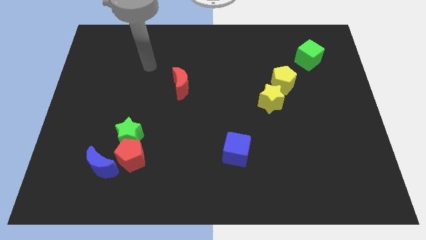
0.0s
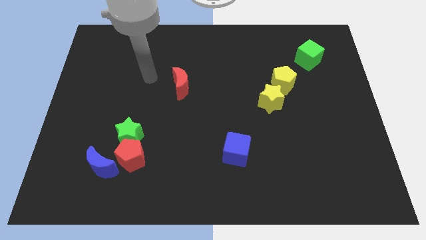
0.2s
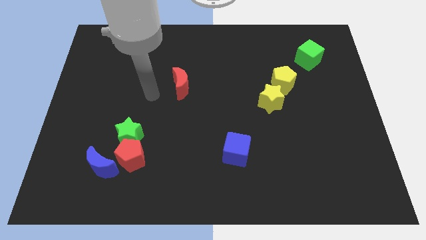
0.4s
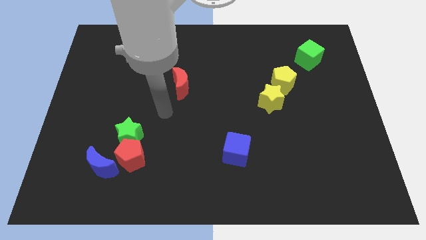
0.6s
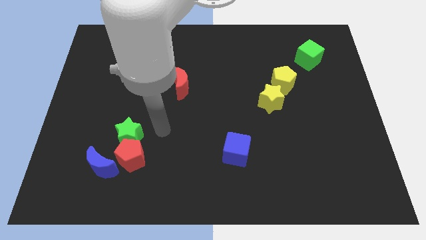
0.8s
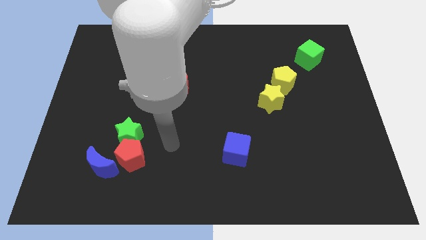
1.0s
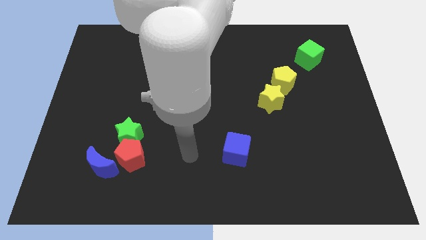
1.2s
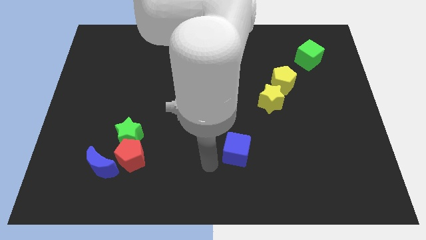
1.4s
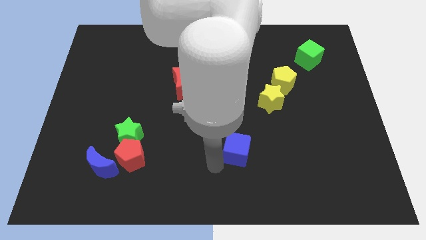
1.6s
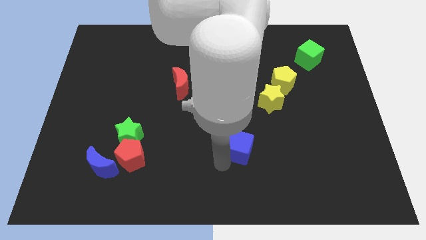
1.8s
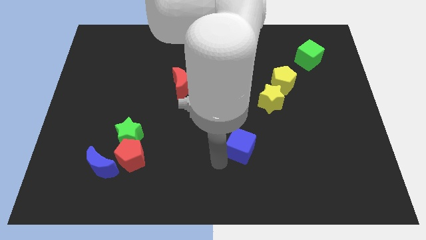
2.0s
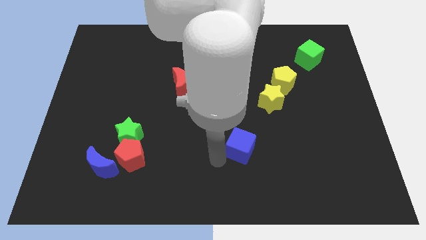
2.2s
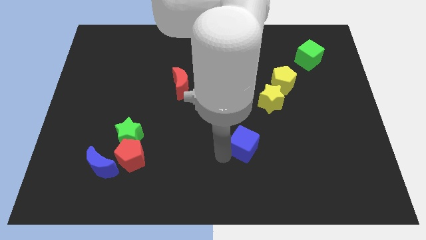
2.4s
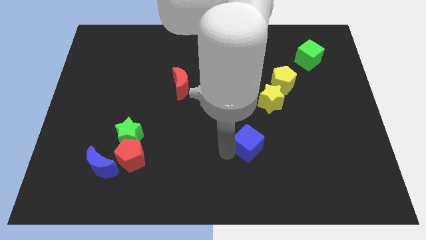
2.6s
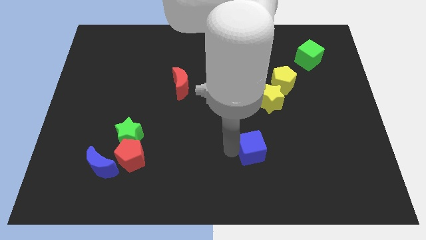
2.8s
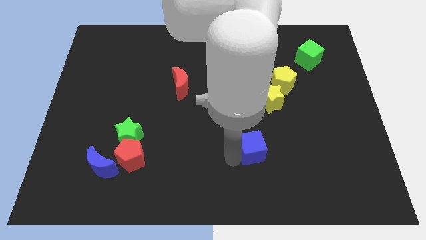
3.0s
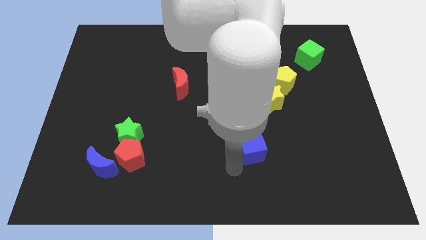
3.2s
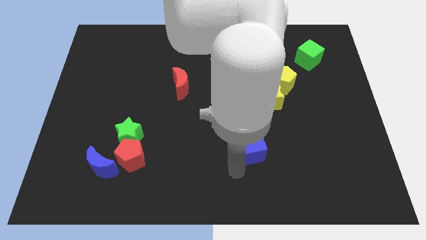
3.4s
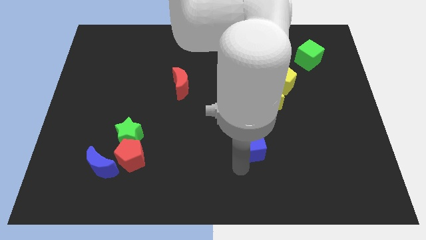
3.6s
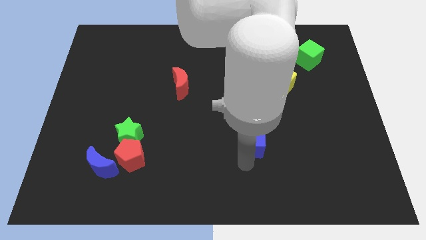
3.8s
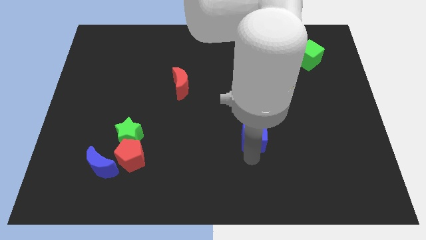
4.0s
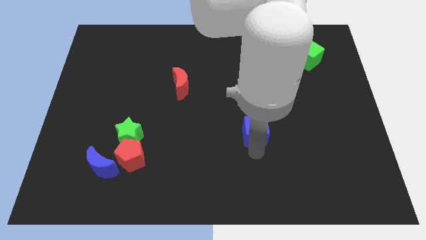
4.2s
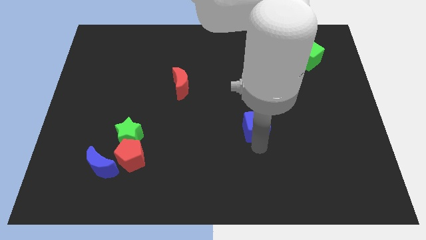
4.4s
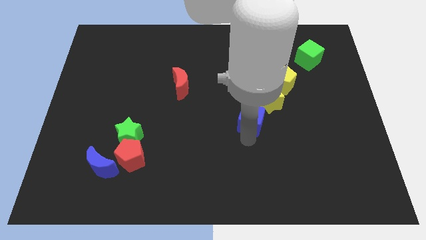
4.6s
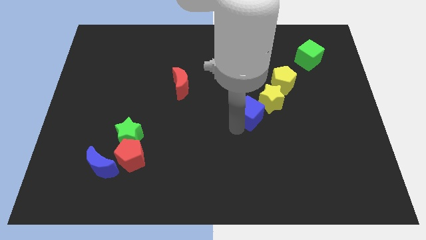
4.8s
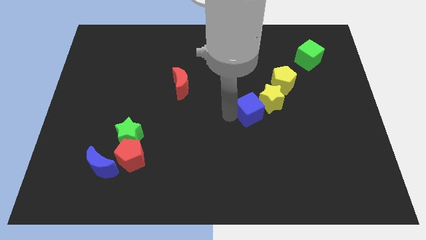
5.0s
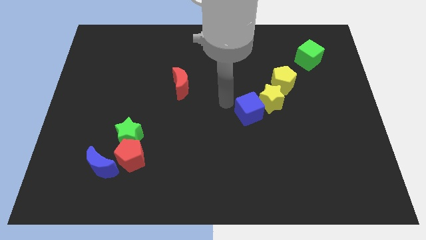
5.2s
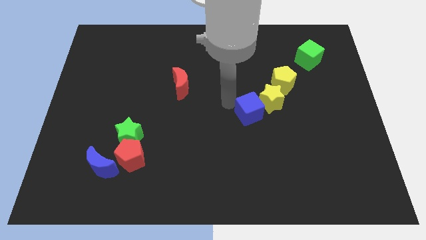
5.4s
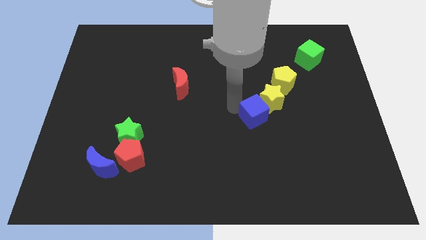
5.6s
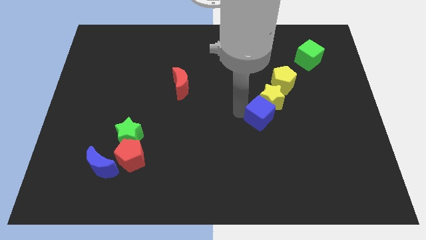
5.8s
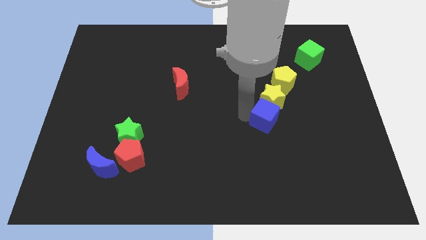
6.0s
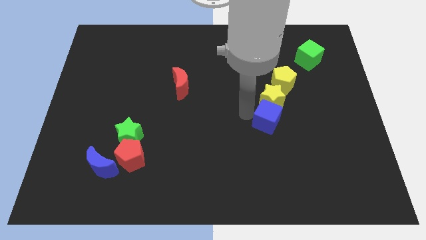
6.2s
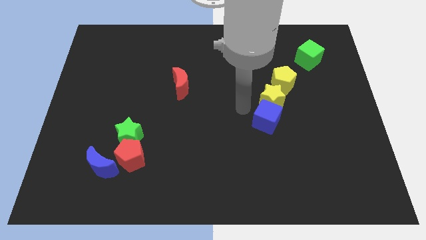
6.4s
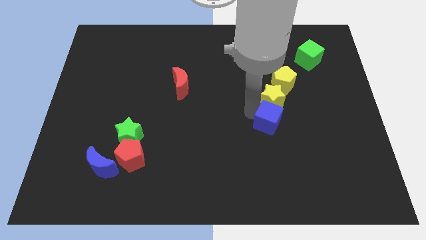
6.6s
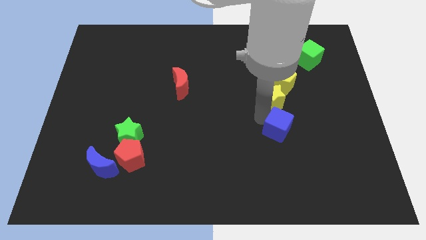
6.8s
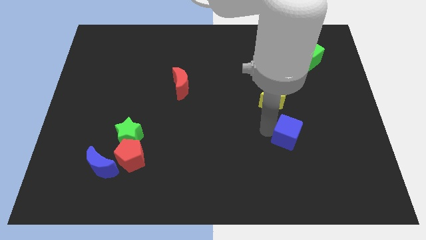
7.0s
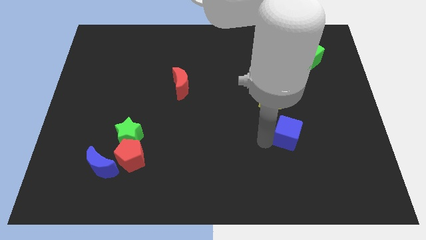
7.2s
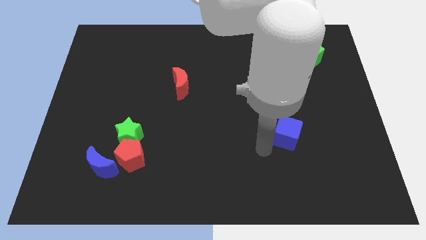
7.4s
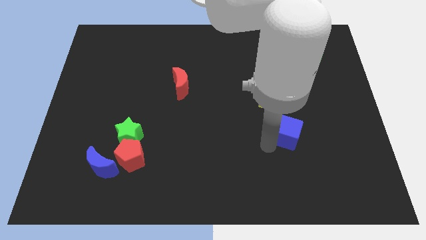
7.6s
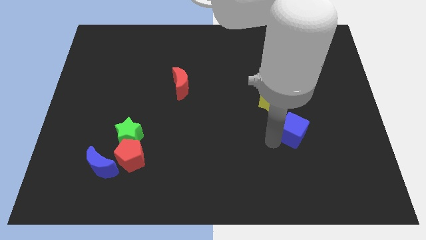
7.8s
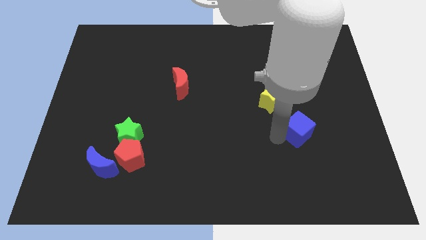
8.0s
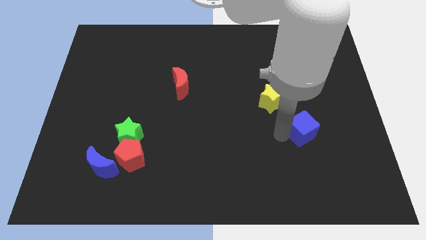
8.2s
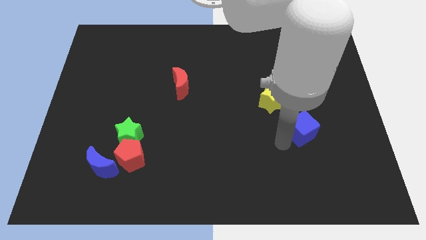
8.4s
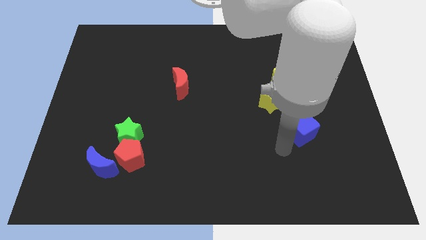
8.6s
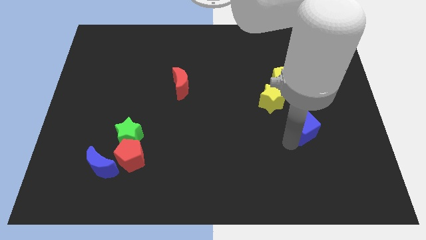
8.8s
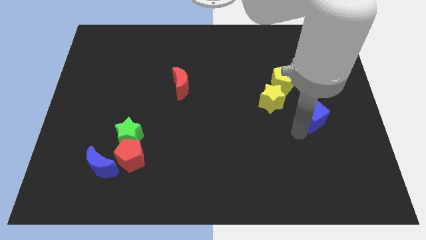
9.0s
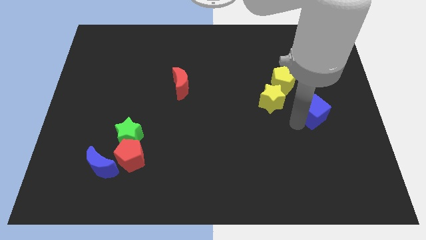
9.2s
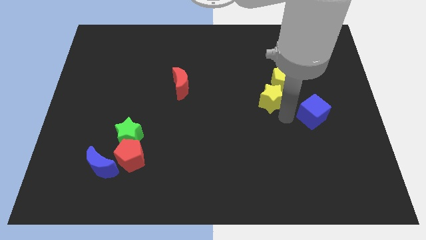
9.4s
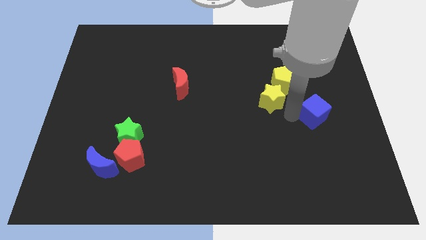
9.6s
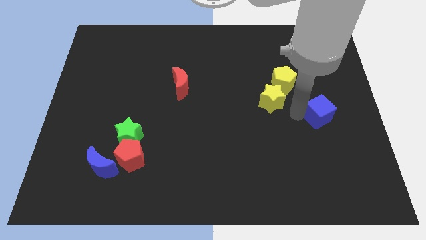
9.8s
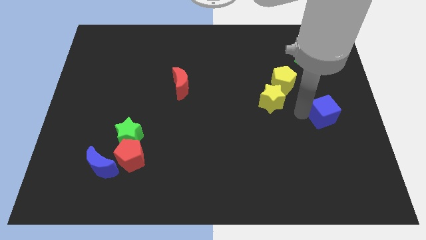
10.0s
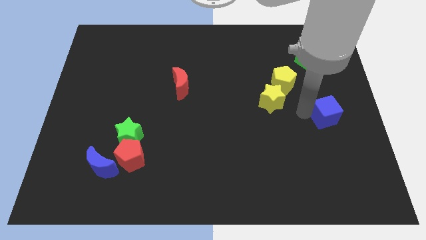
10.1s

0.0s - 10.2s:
slide the blue cube to the center right

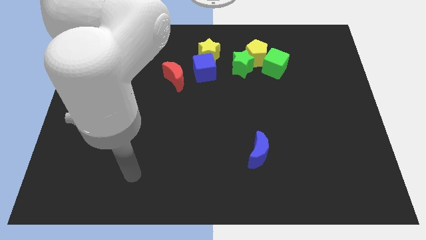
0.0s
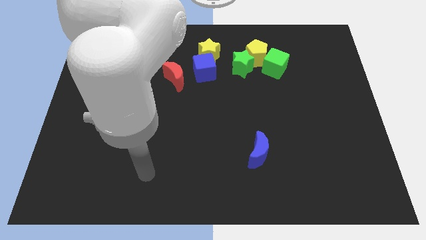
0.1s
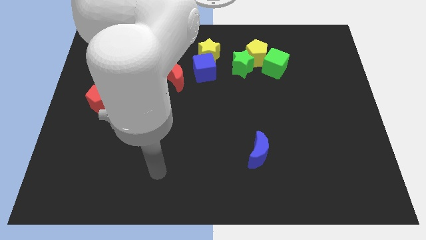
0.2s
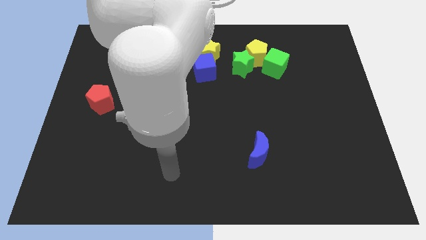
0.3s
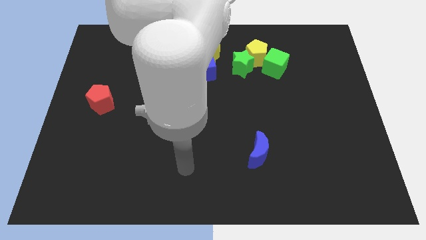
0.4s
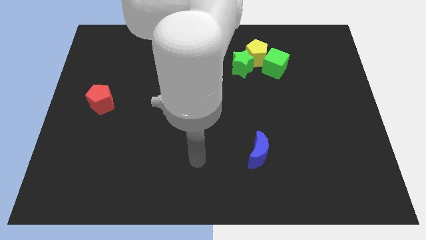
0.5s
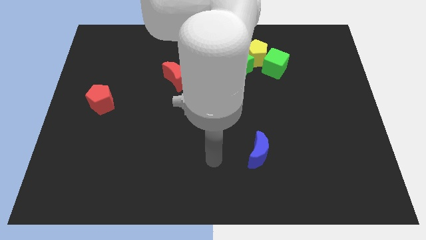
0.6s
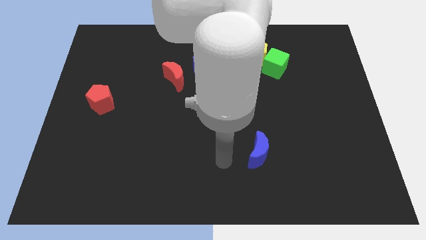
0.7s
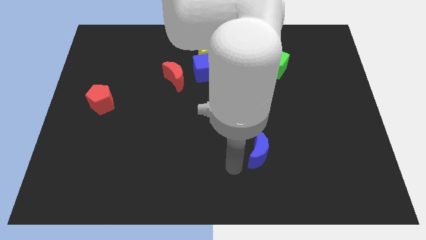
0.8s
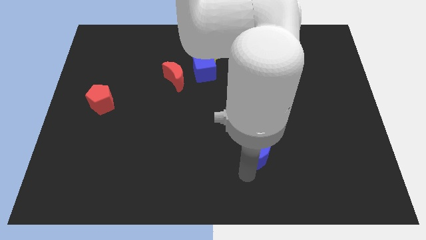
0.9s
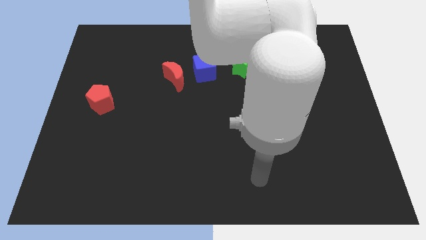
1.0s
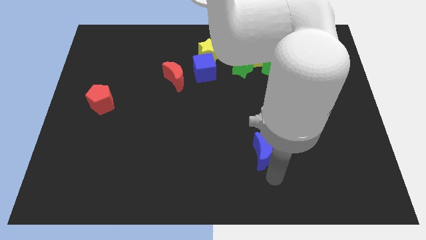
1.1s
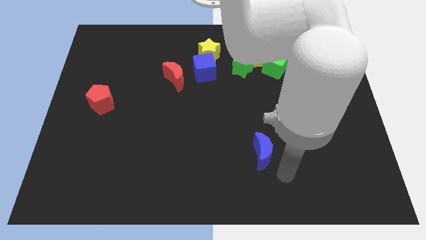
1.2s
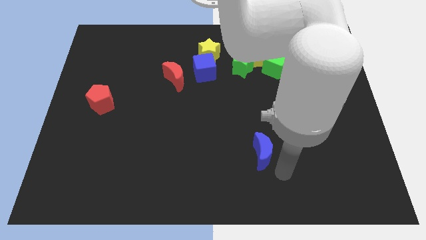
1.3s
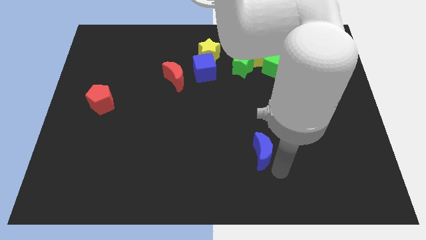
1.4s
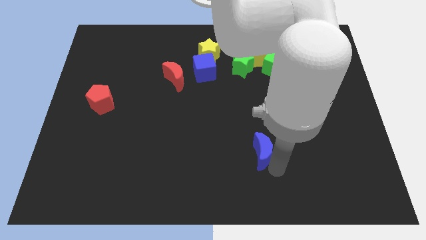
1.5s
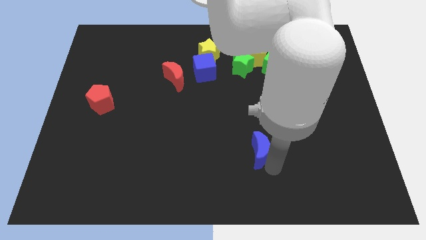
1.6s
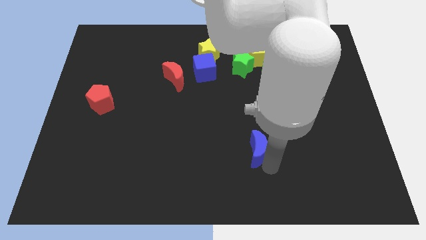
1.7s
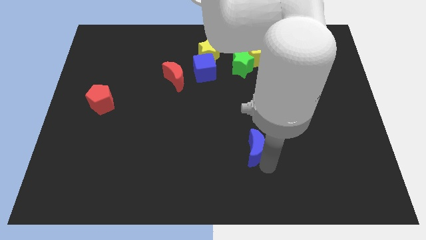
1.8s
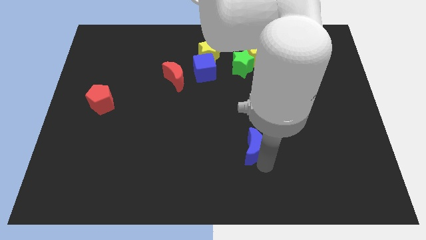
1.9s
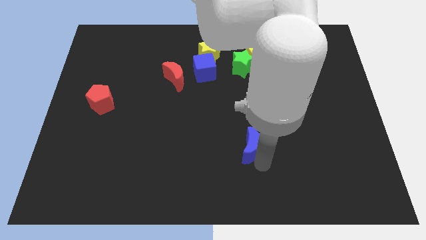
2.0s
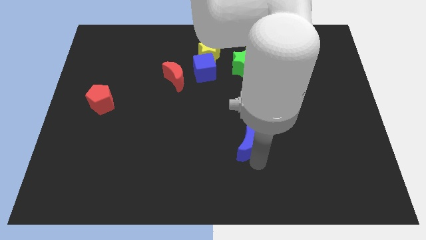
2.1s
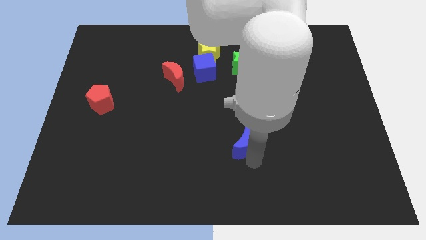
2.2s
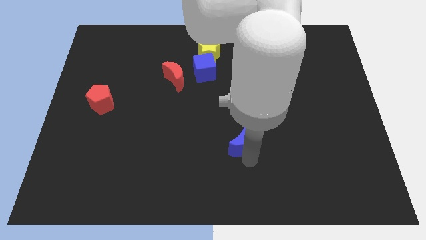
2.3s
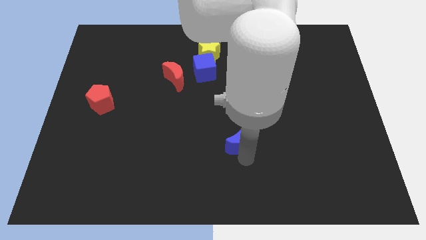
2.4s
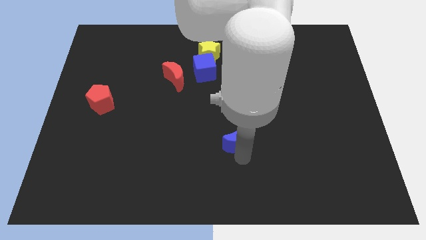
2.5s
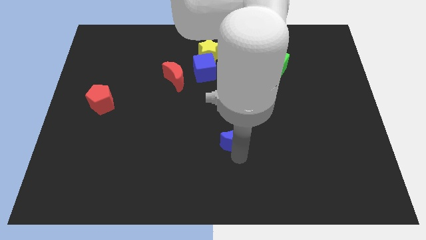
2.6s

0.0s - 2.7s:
move the blue moon to the middle

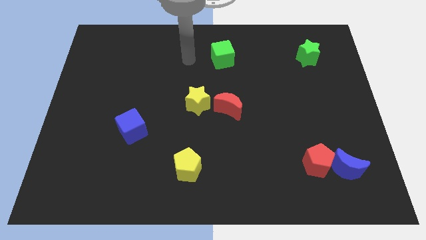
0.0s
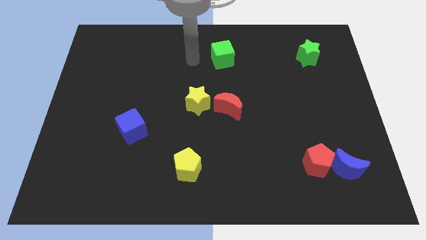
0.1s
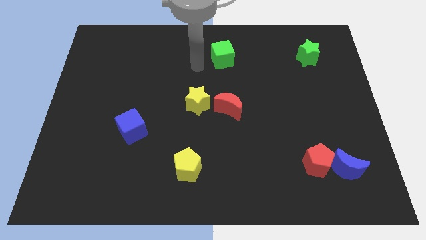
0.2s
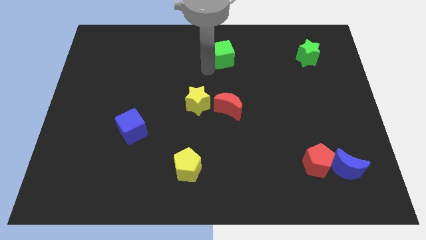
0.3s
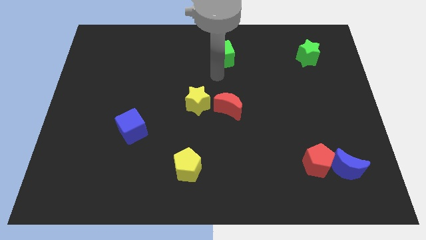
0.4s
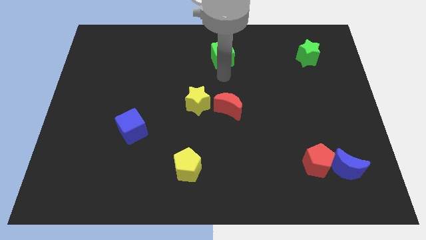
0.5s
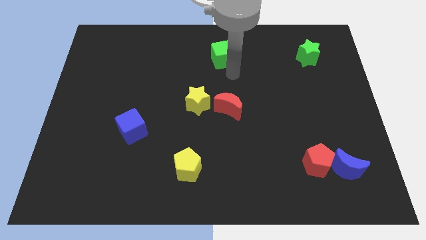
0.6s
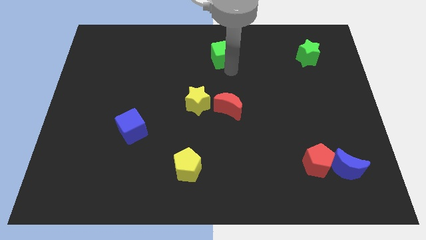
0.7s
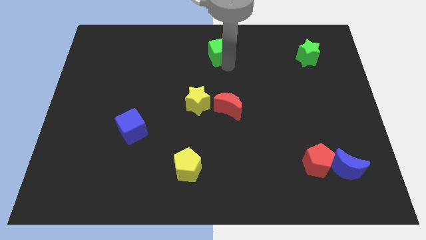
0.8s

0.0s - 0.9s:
push the green cube to the towards your base
